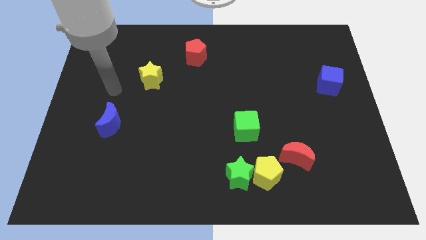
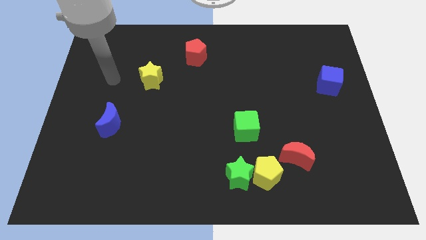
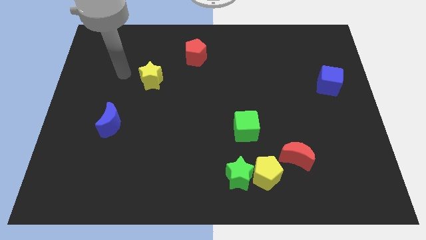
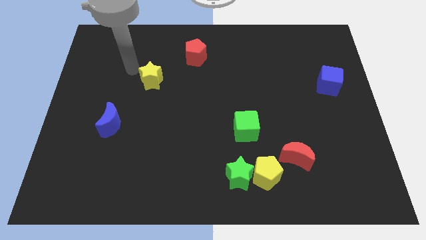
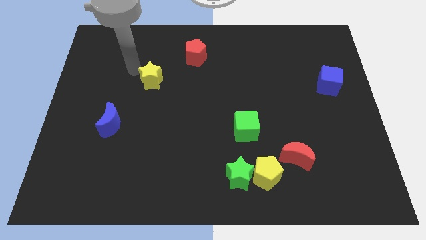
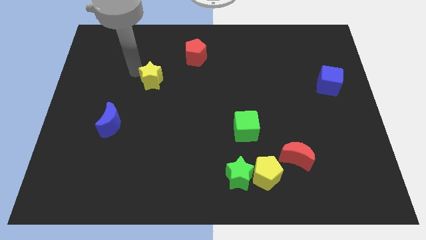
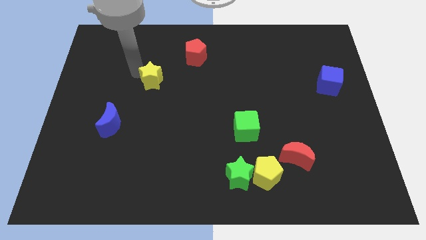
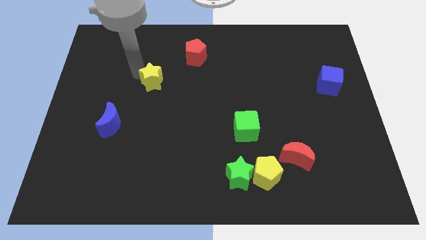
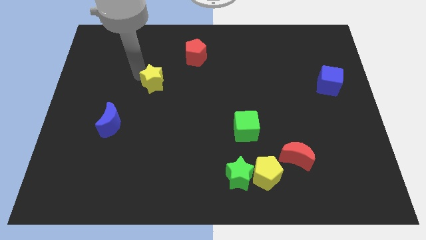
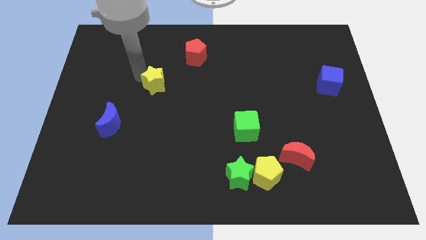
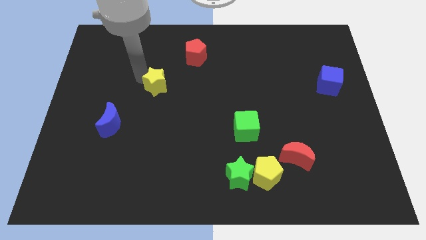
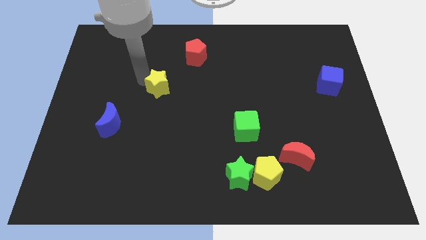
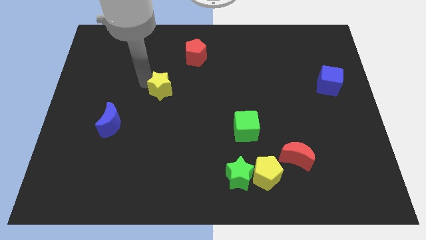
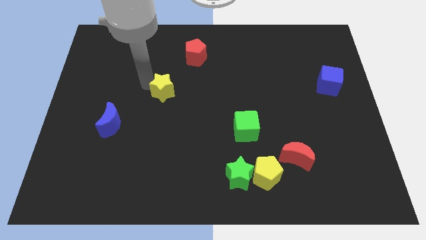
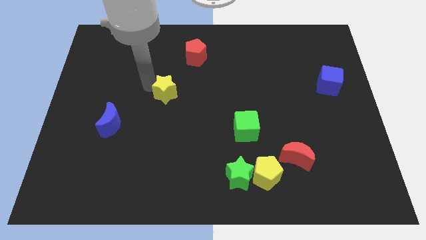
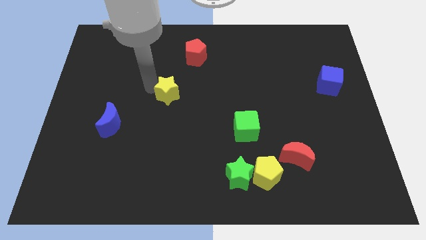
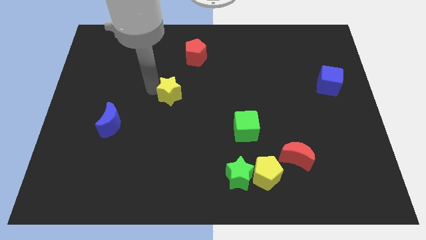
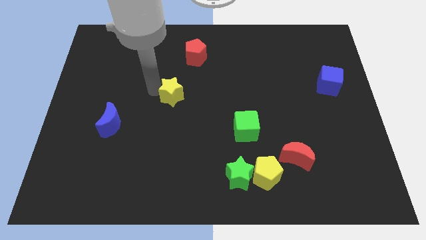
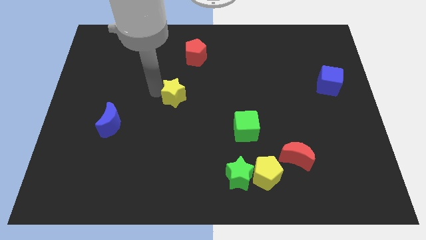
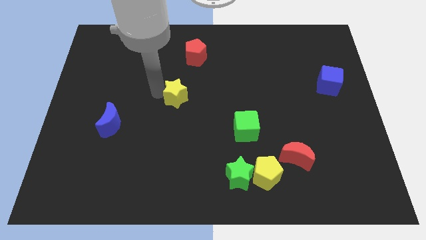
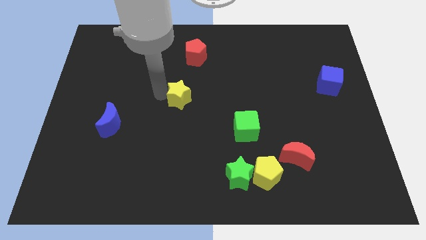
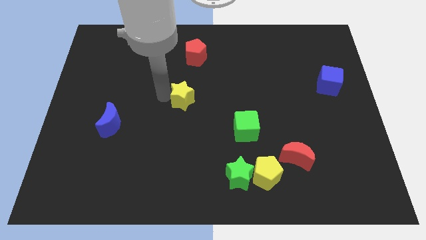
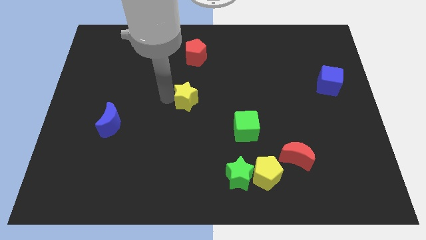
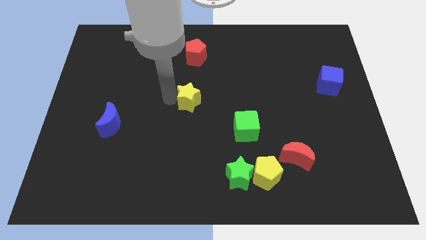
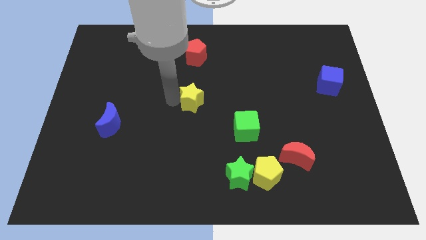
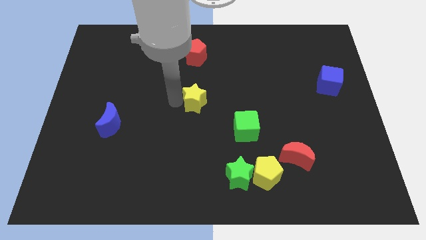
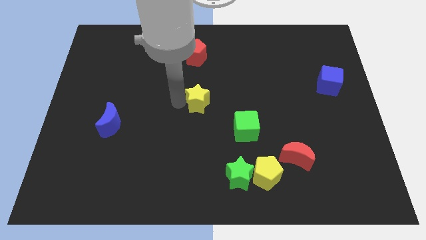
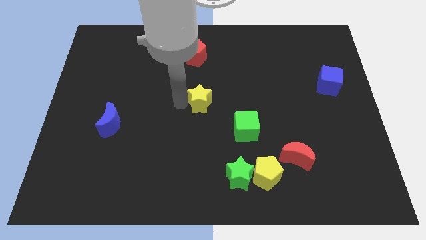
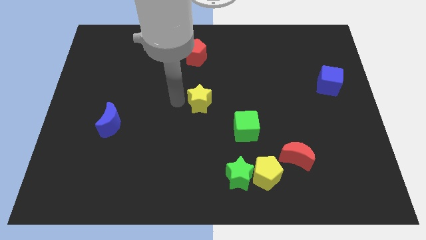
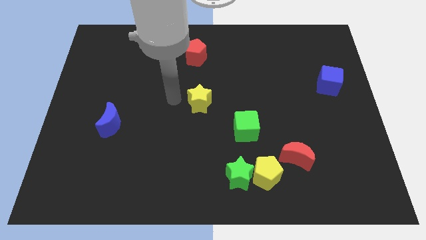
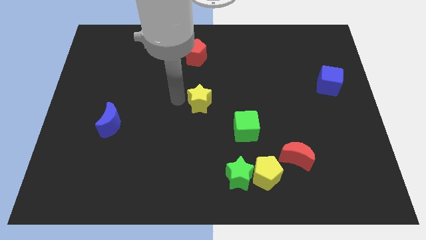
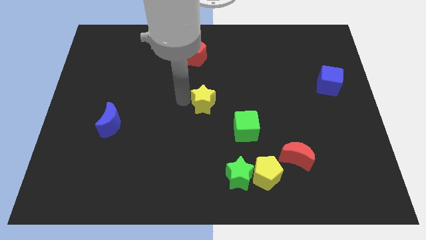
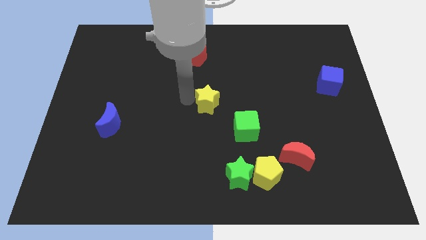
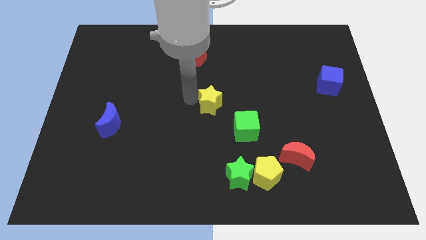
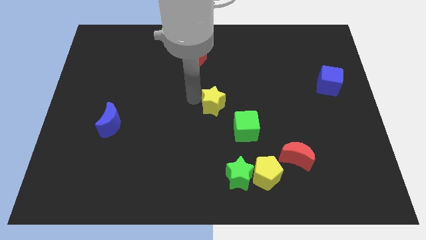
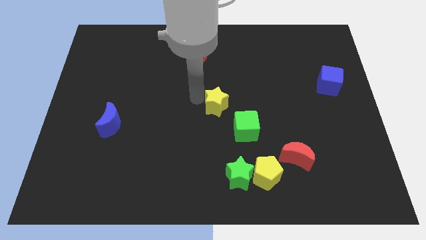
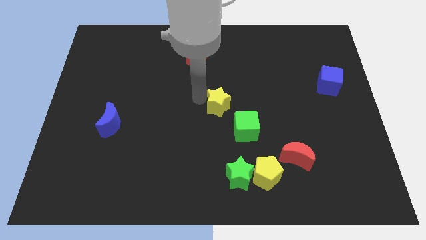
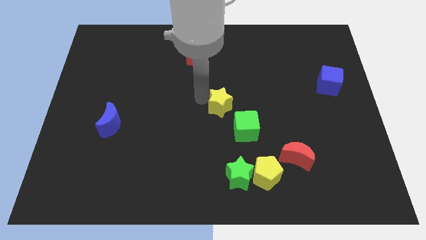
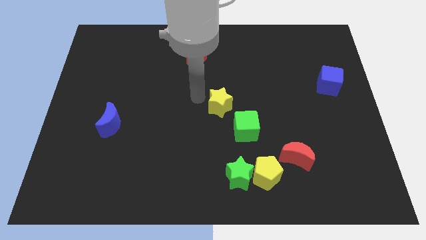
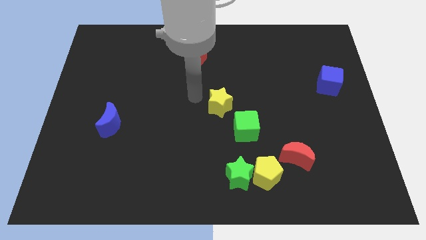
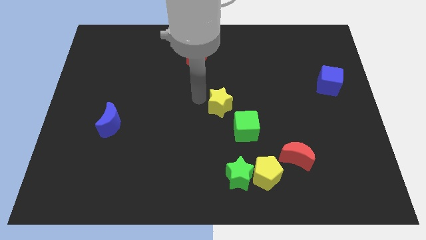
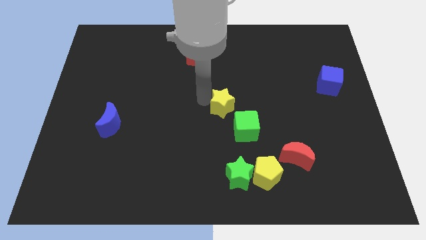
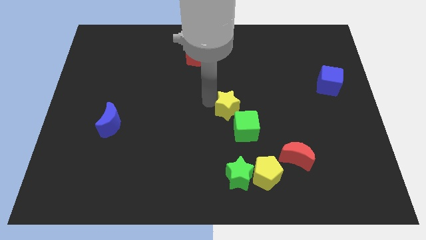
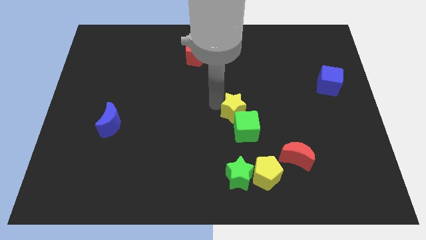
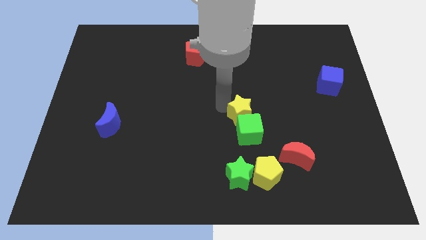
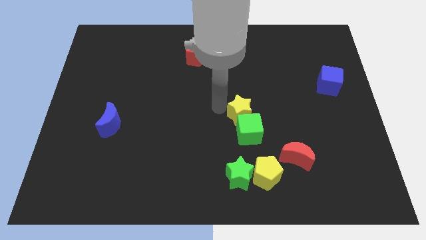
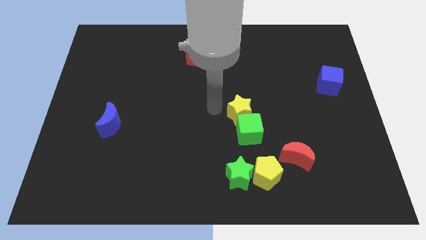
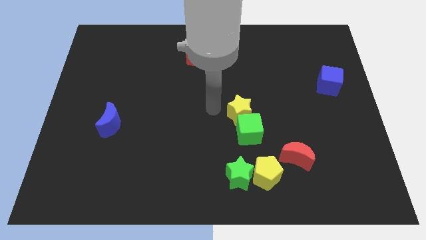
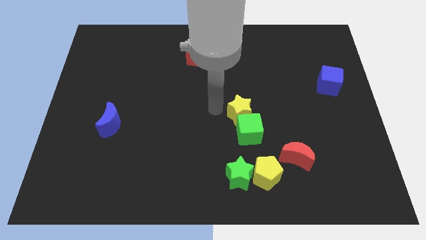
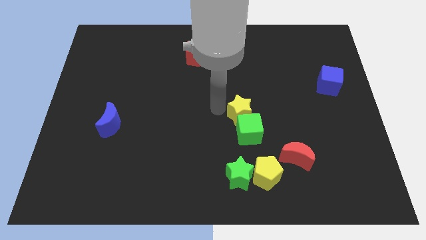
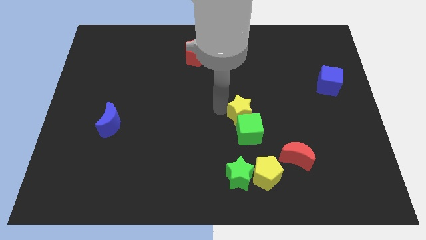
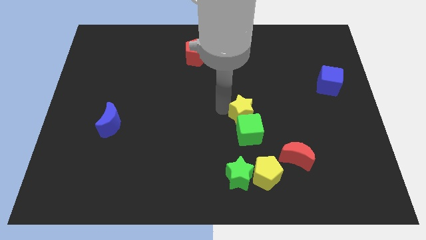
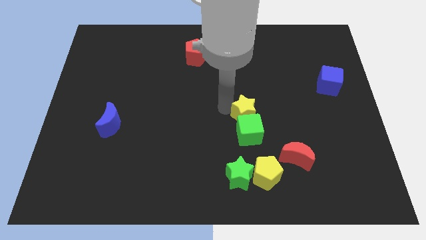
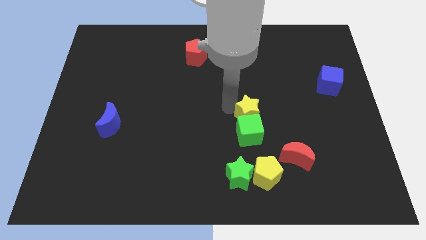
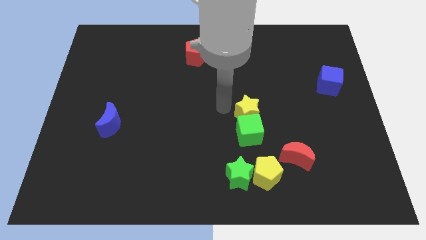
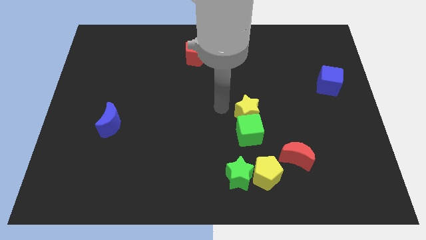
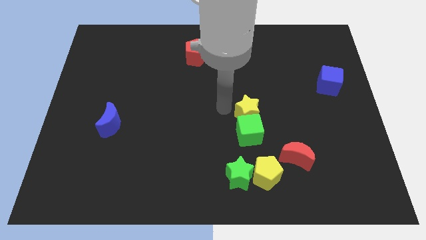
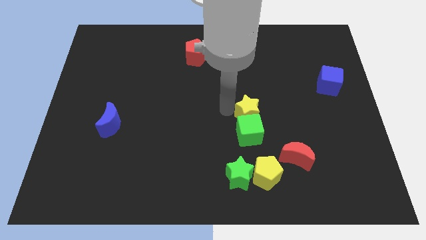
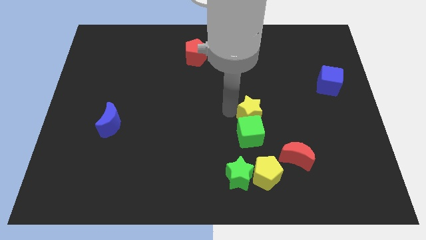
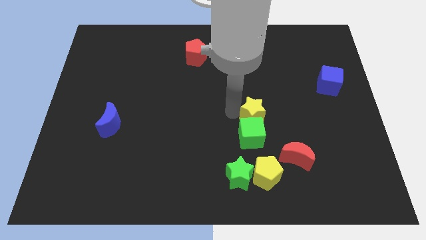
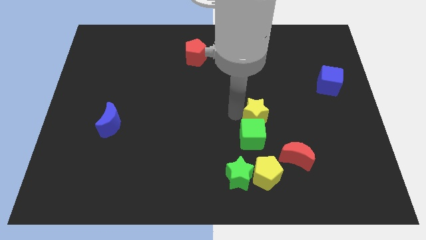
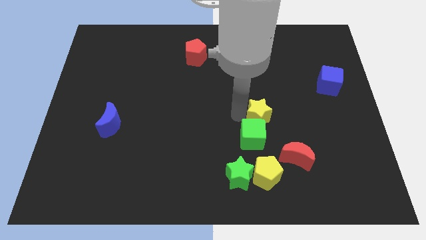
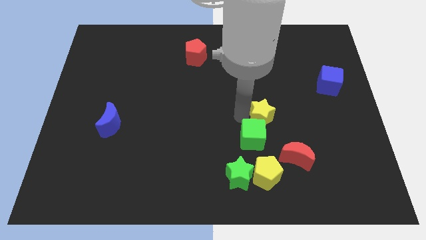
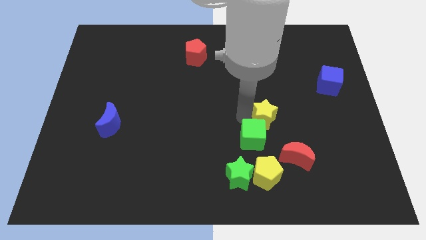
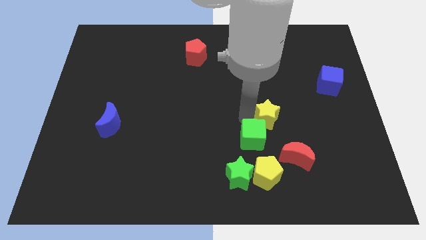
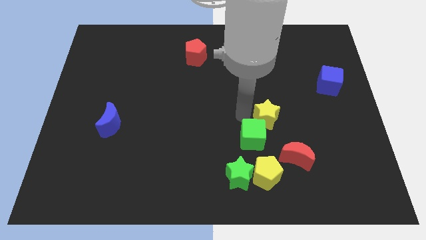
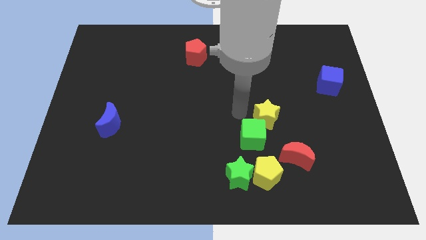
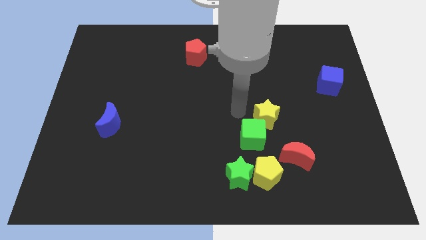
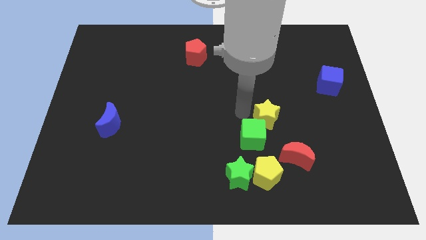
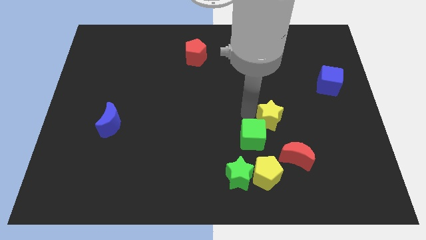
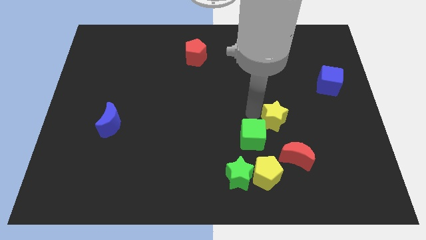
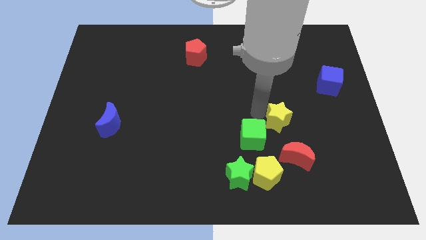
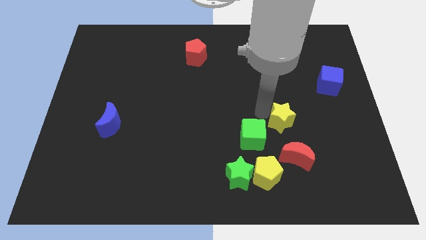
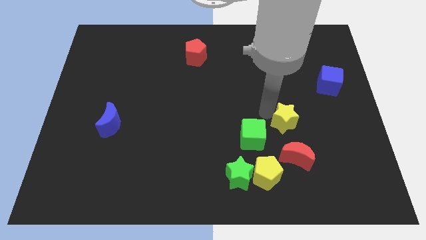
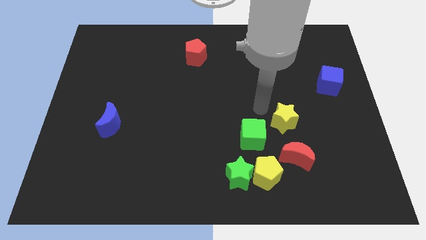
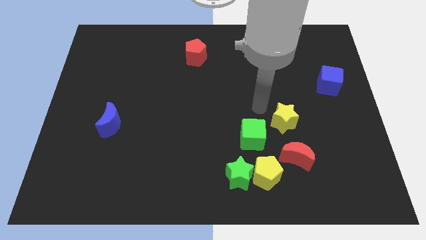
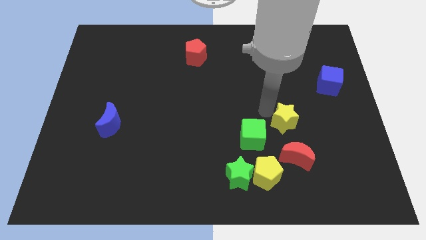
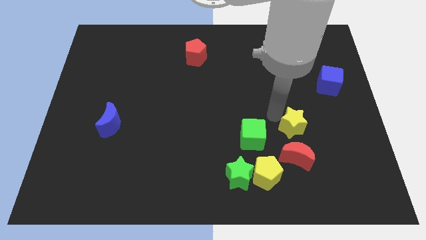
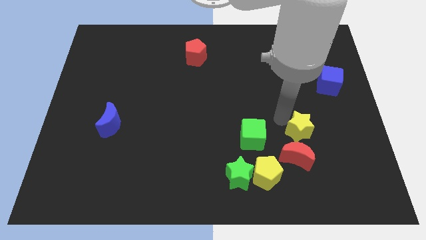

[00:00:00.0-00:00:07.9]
put the yellow star diagonally up and to the right of the red moon
